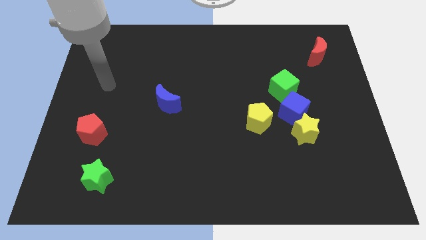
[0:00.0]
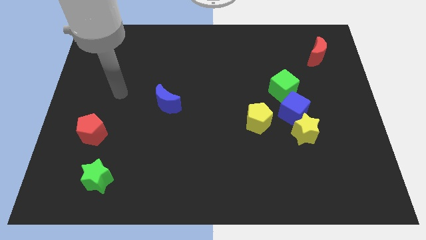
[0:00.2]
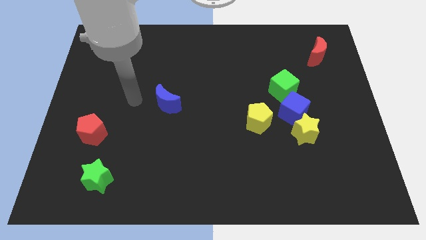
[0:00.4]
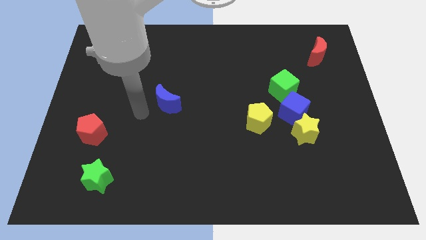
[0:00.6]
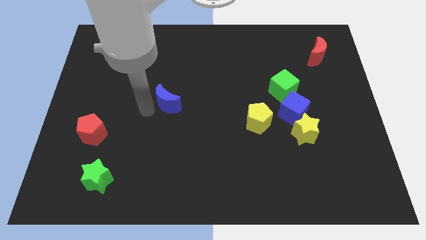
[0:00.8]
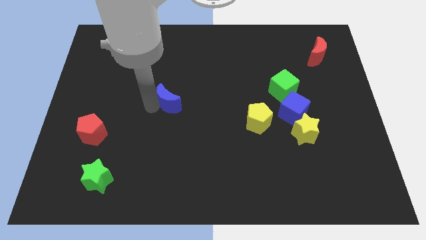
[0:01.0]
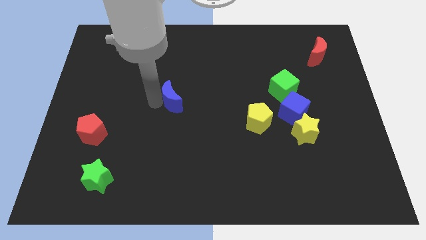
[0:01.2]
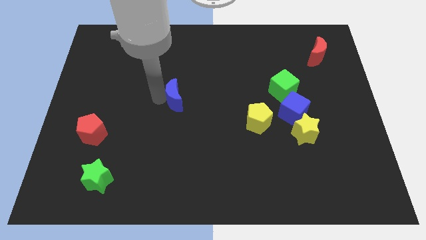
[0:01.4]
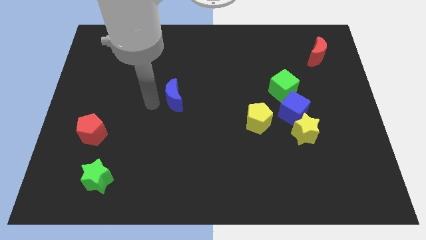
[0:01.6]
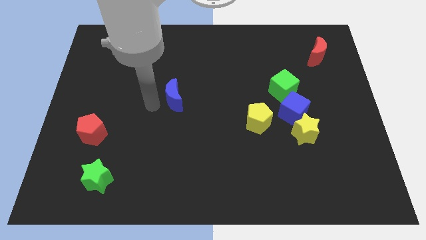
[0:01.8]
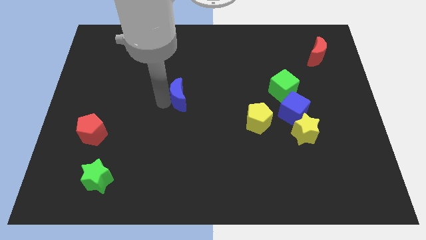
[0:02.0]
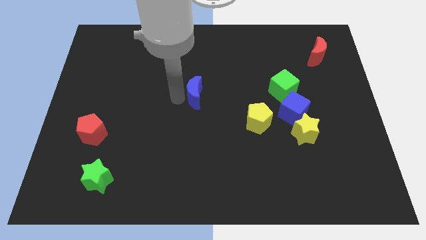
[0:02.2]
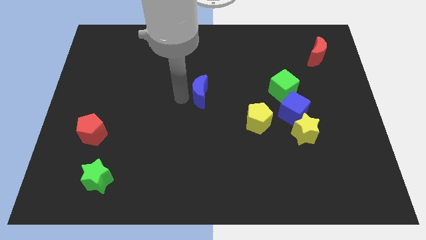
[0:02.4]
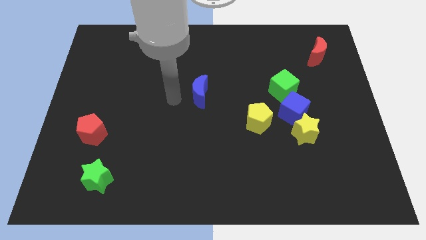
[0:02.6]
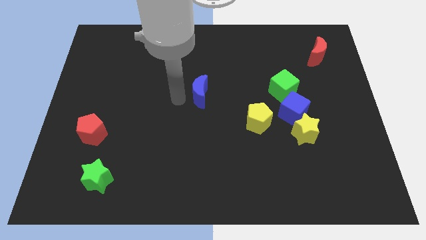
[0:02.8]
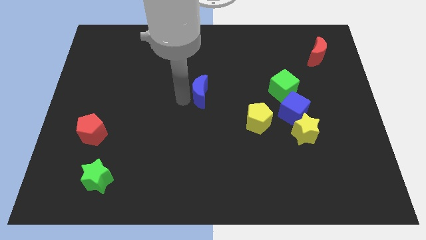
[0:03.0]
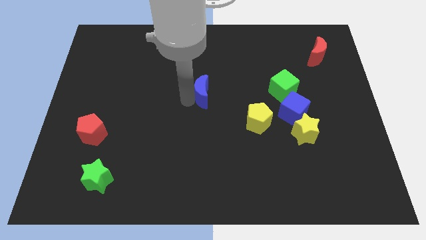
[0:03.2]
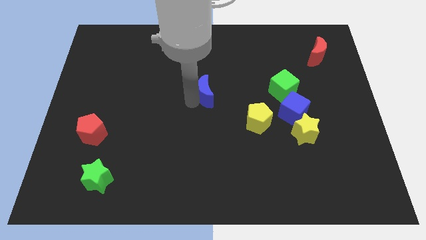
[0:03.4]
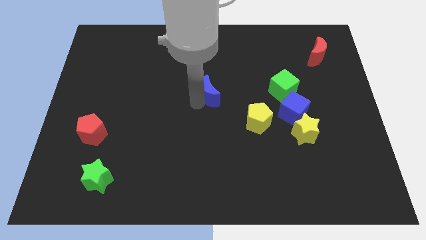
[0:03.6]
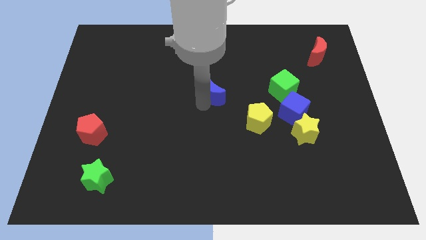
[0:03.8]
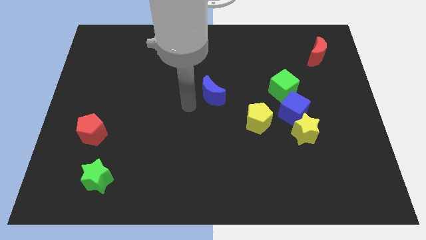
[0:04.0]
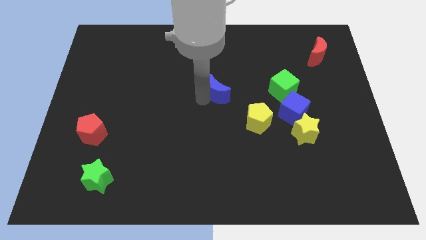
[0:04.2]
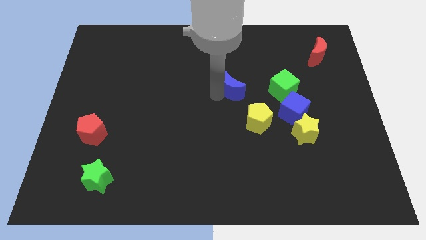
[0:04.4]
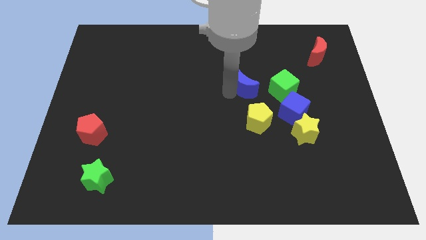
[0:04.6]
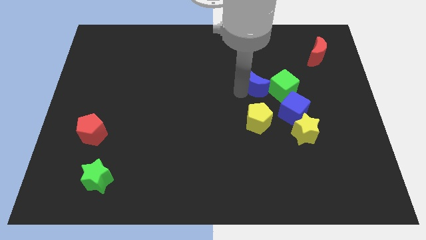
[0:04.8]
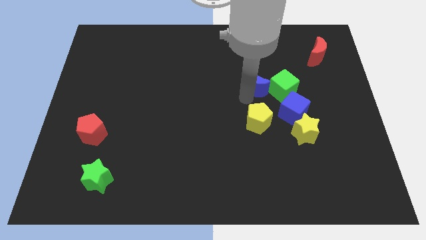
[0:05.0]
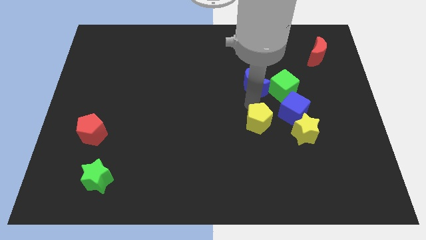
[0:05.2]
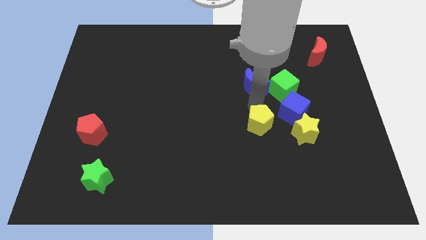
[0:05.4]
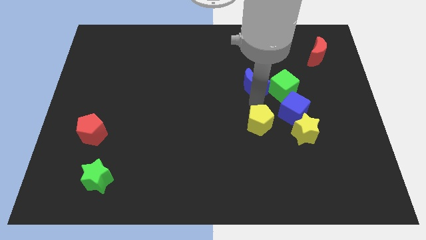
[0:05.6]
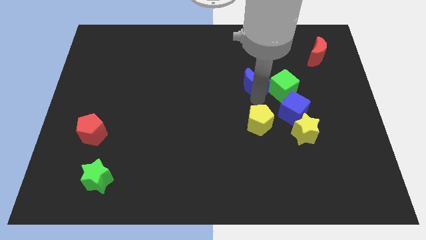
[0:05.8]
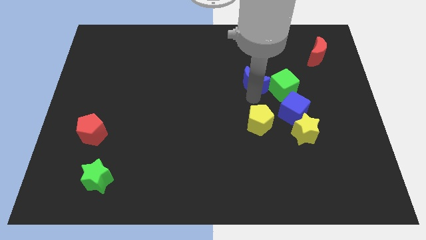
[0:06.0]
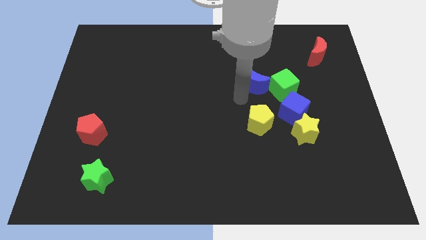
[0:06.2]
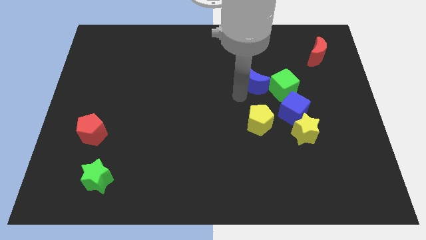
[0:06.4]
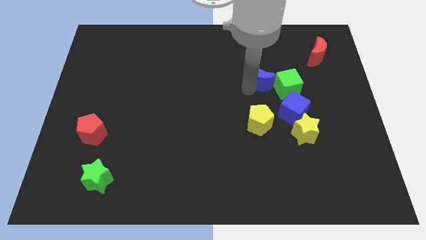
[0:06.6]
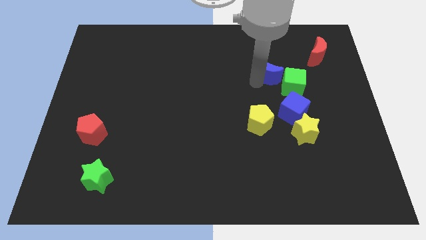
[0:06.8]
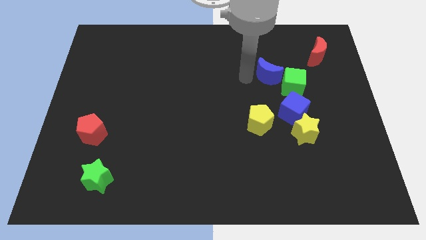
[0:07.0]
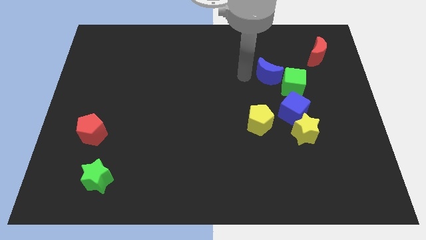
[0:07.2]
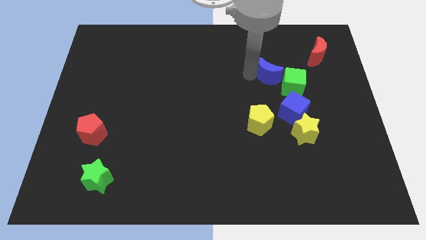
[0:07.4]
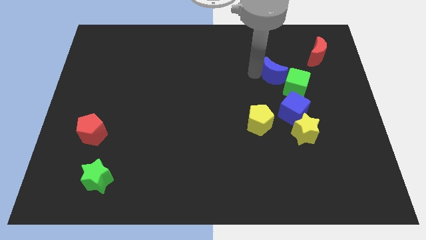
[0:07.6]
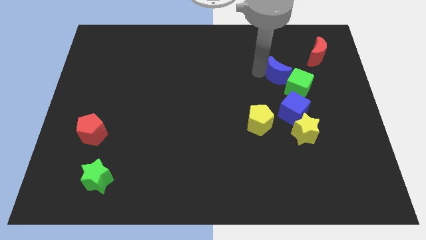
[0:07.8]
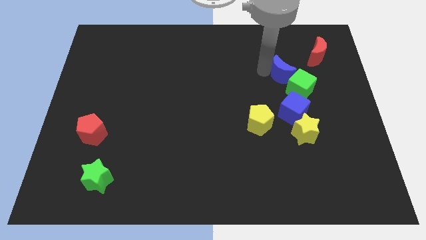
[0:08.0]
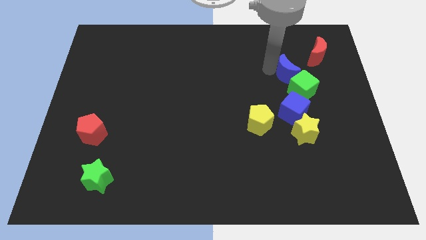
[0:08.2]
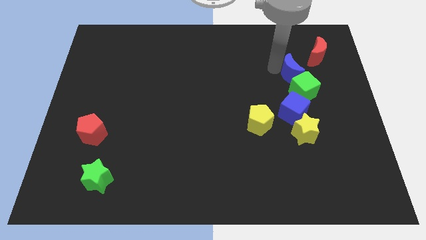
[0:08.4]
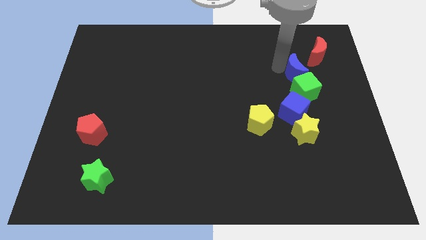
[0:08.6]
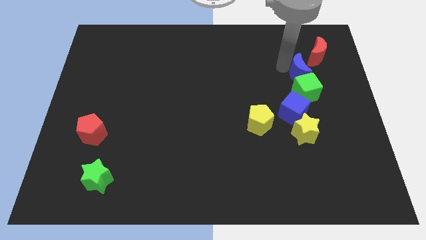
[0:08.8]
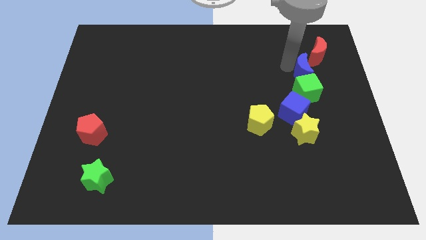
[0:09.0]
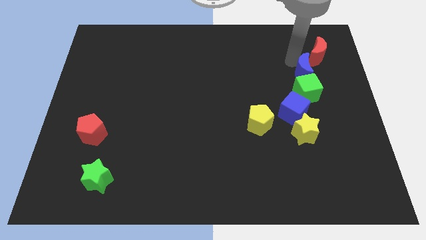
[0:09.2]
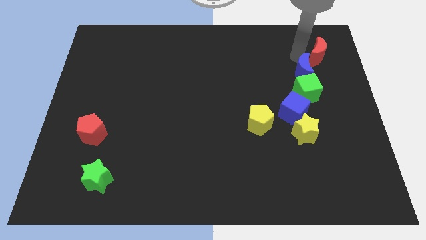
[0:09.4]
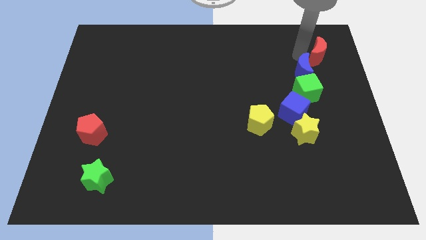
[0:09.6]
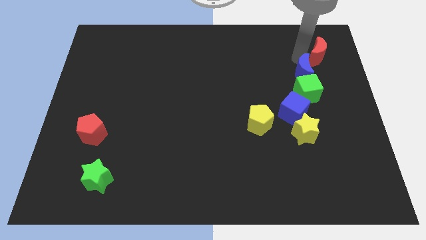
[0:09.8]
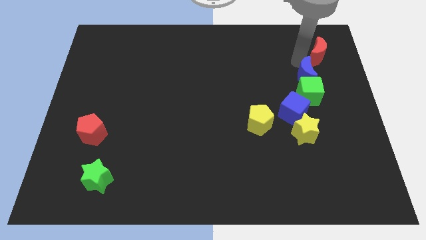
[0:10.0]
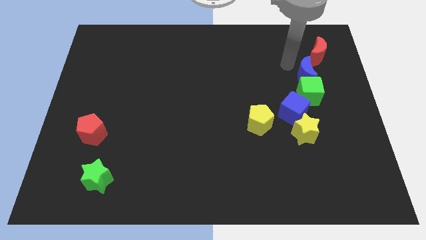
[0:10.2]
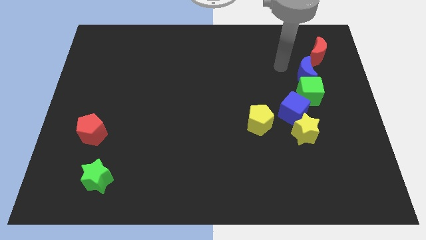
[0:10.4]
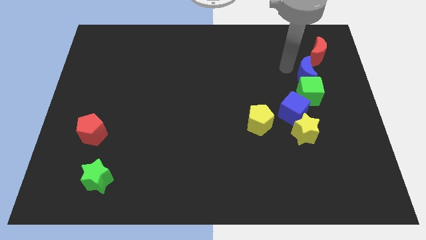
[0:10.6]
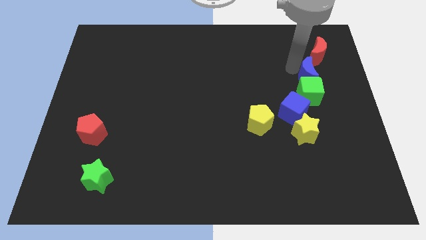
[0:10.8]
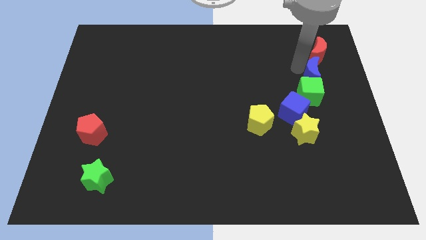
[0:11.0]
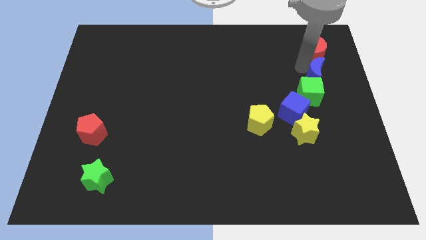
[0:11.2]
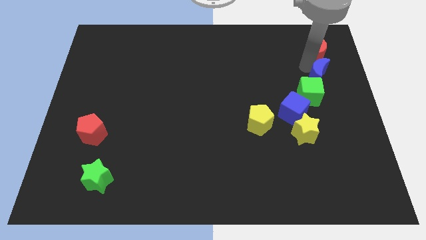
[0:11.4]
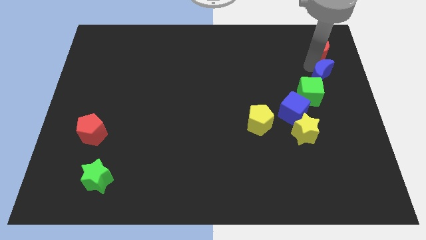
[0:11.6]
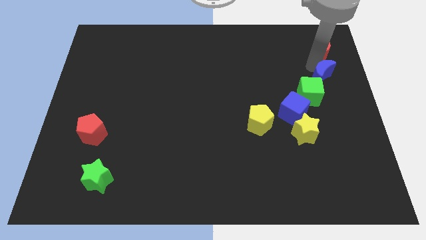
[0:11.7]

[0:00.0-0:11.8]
slide the blue moon to the right side
